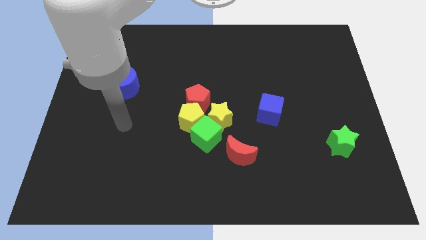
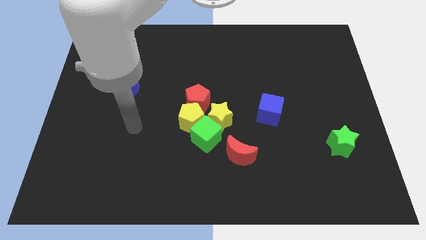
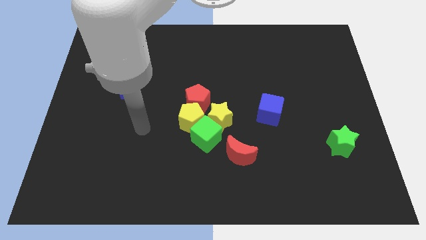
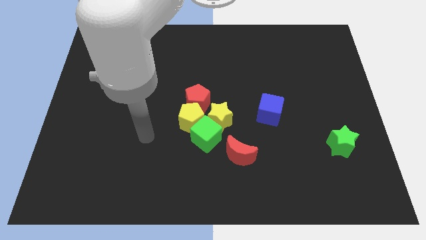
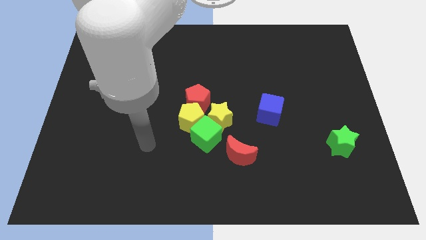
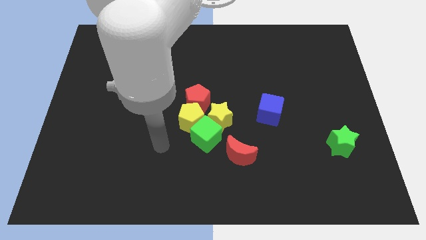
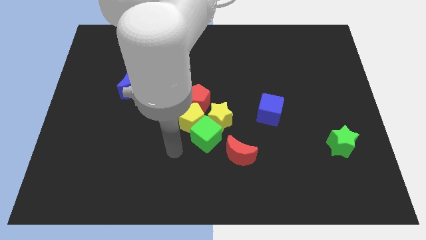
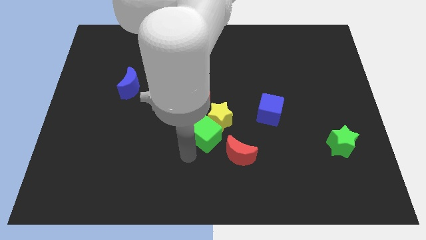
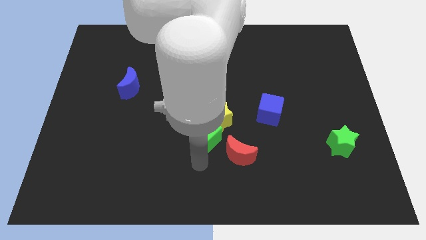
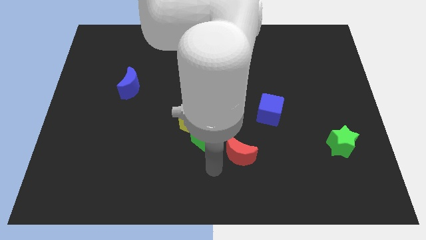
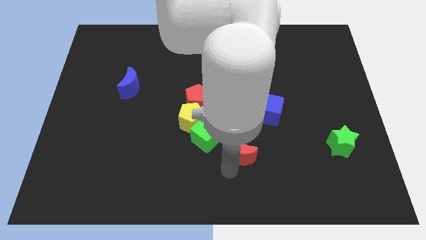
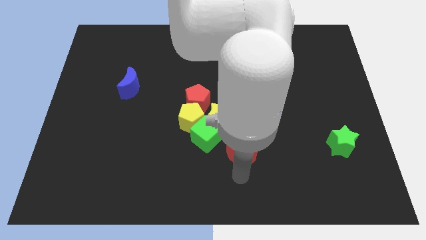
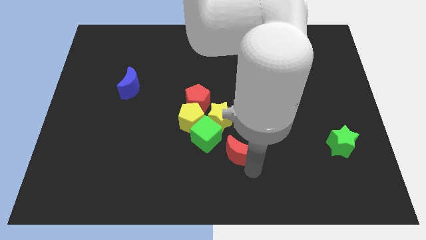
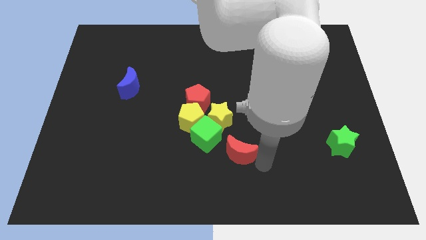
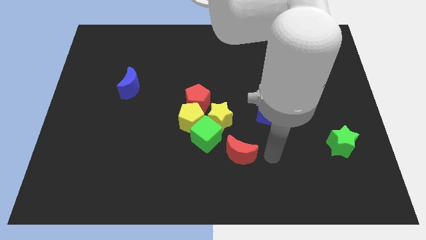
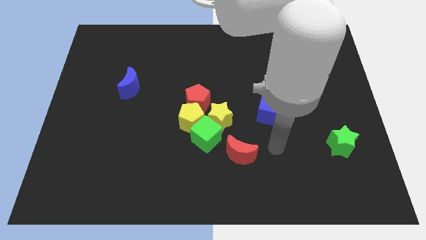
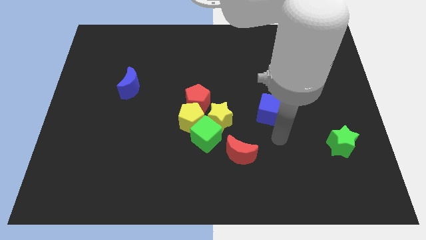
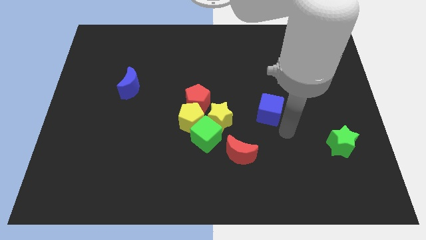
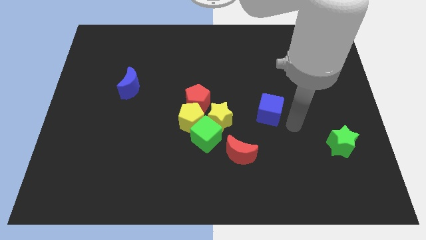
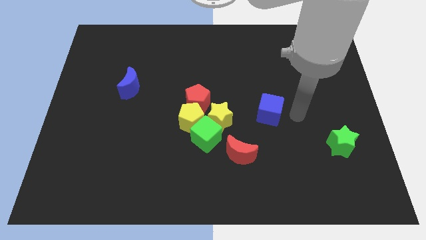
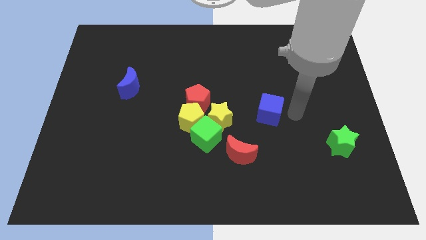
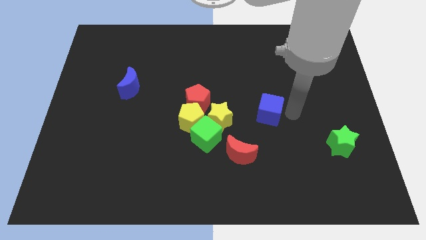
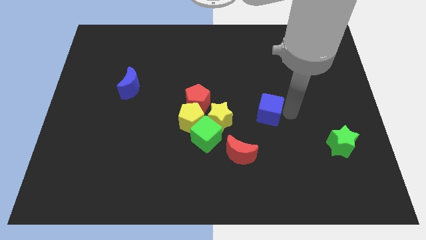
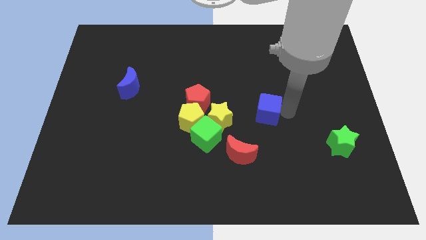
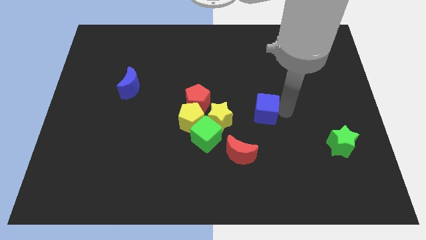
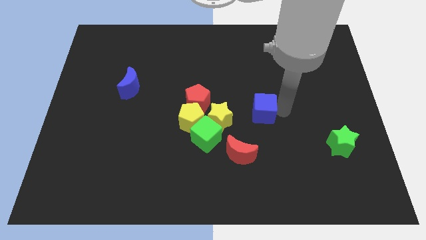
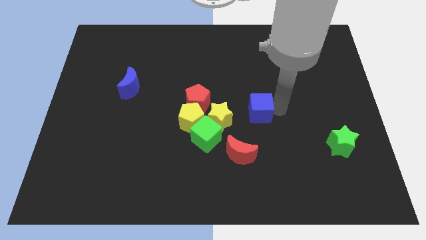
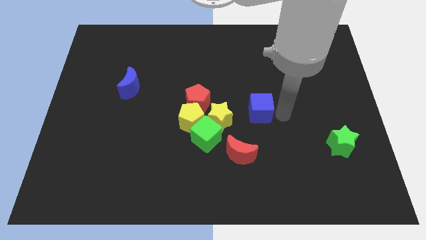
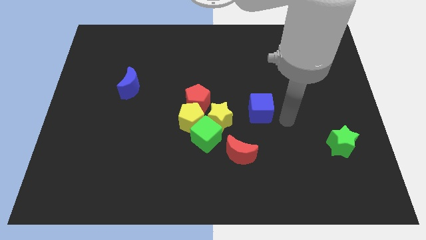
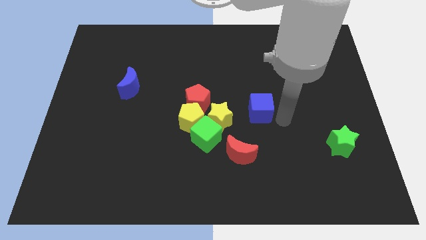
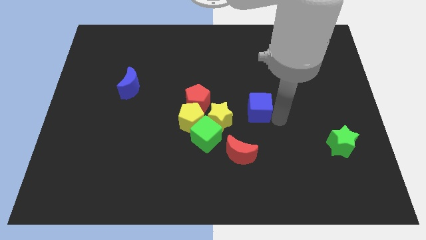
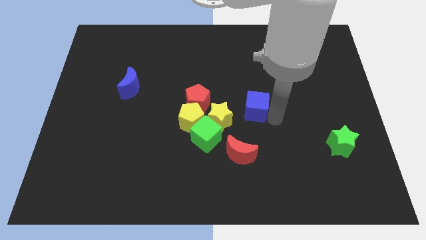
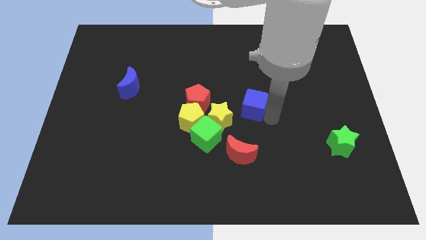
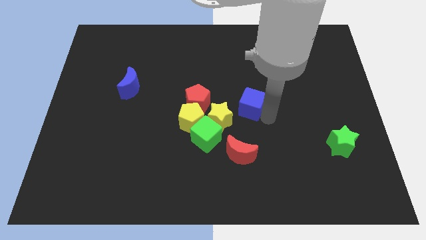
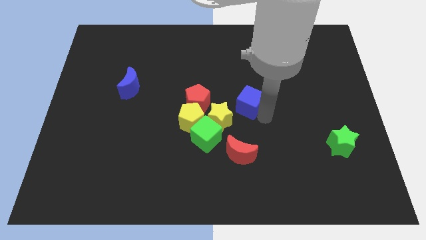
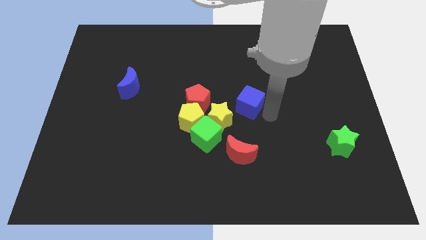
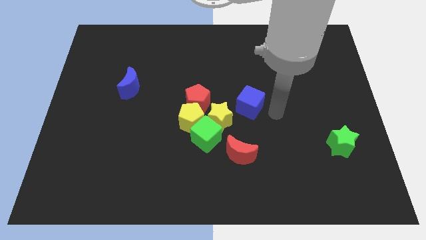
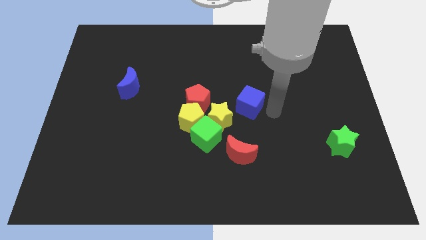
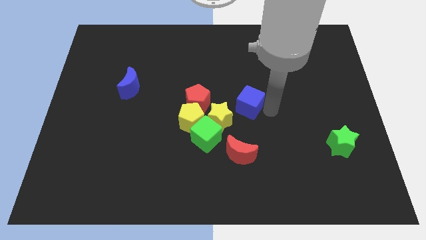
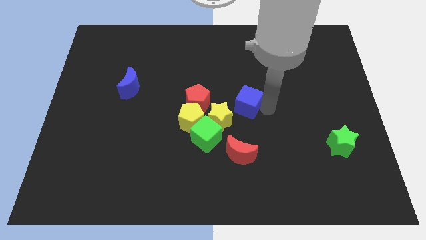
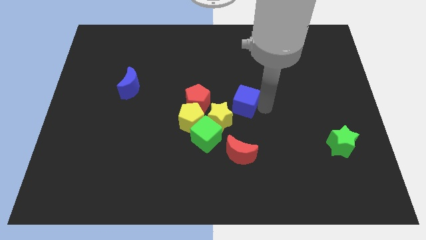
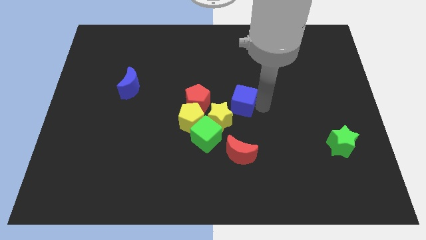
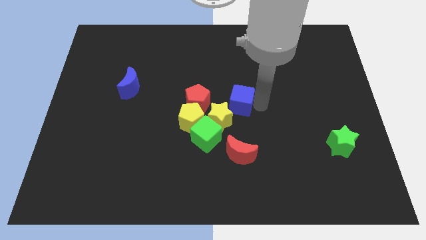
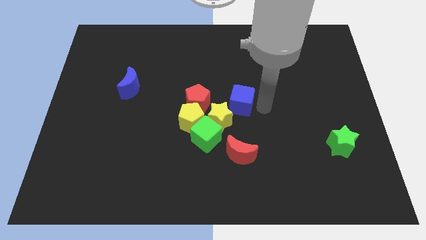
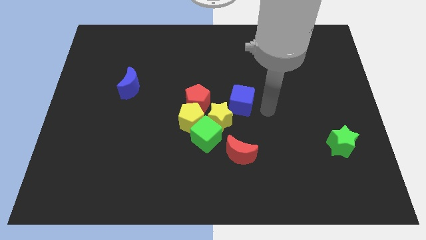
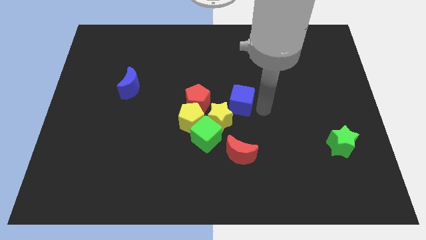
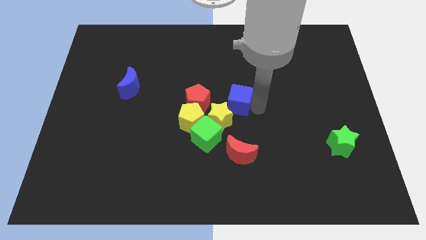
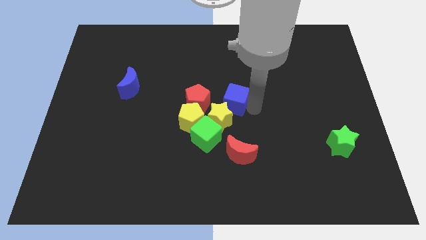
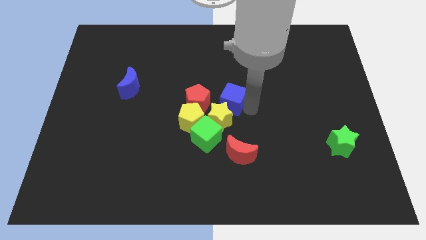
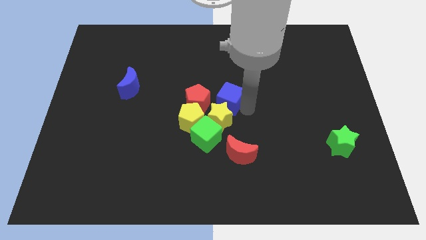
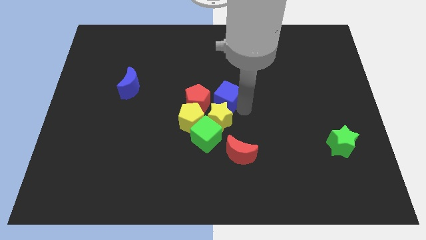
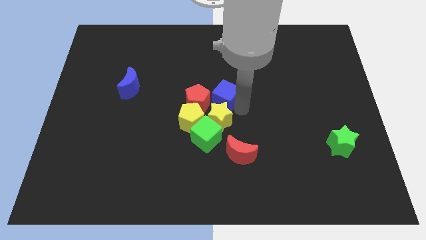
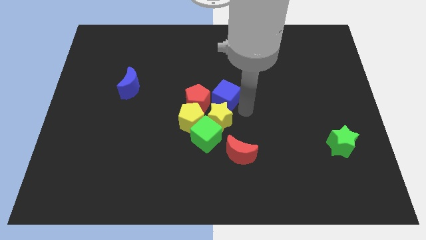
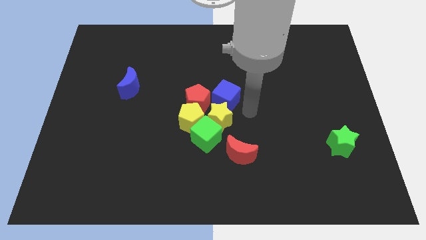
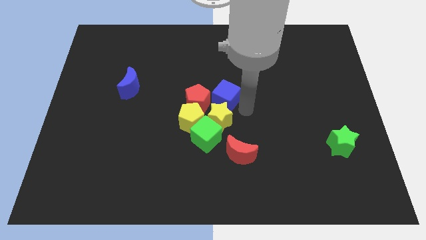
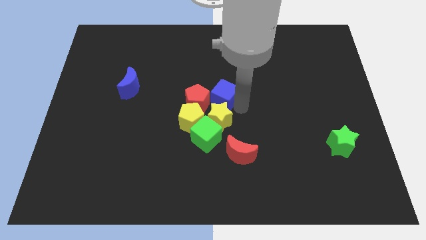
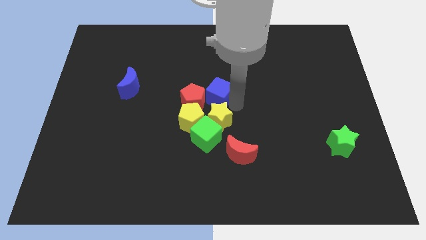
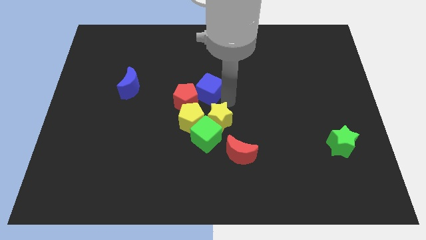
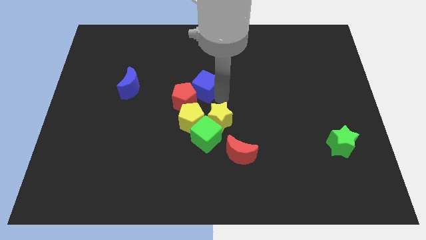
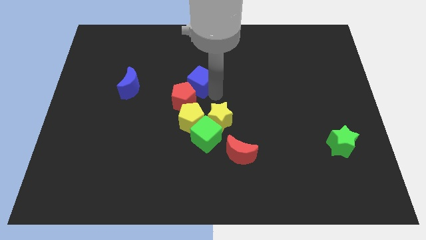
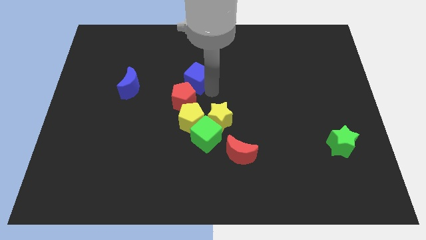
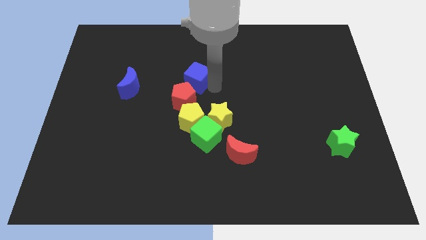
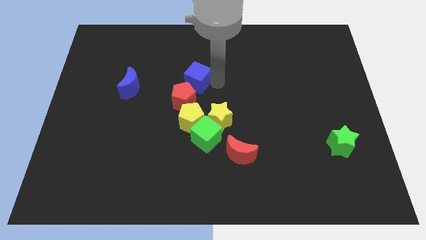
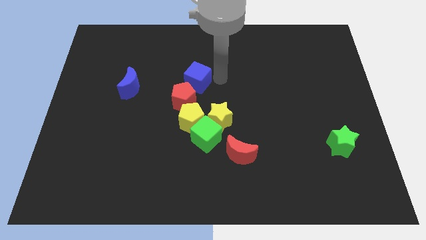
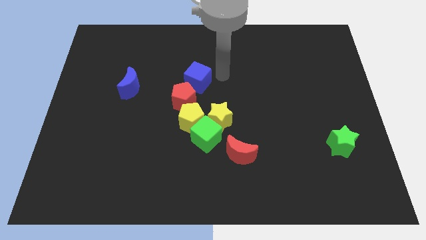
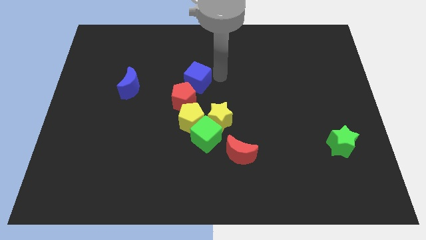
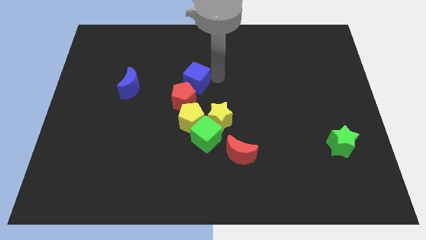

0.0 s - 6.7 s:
slide the blue cube to the right side of the blue moon

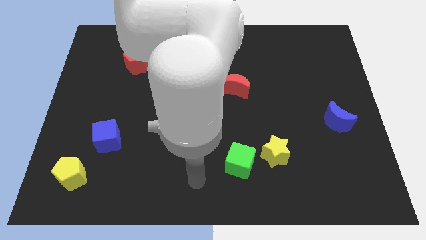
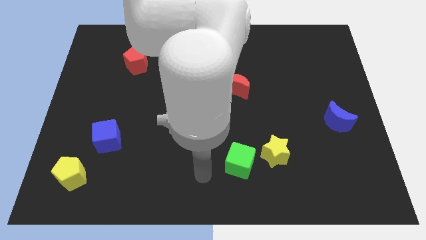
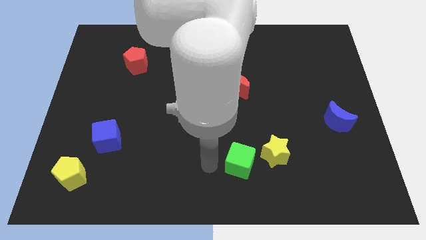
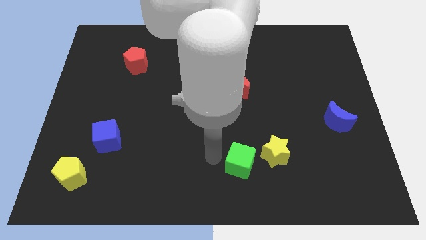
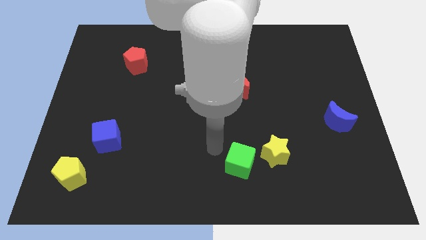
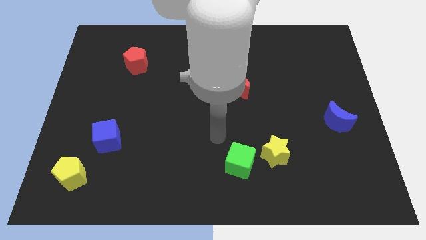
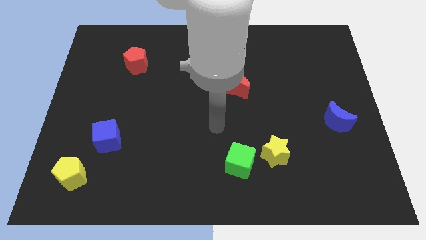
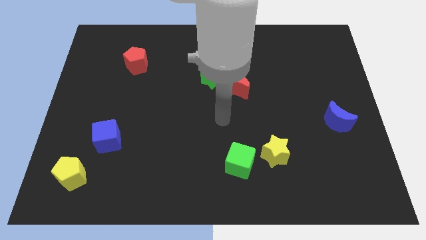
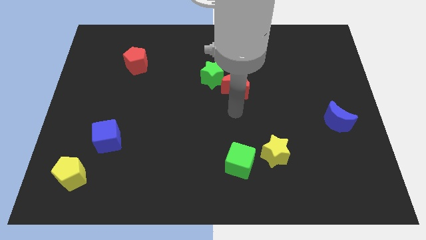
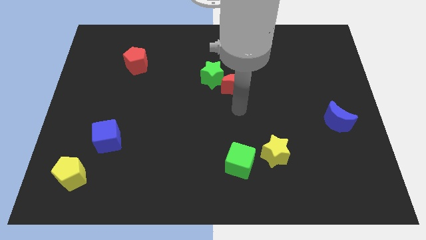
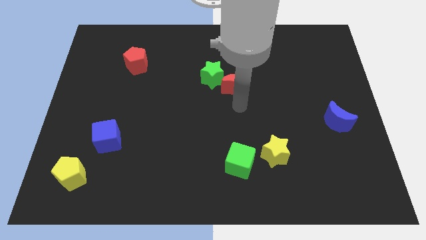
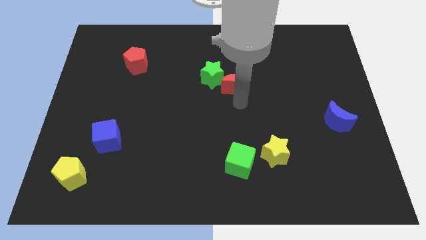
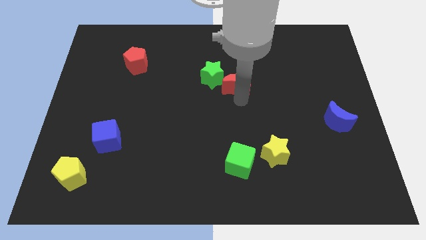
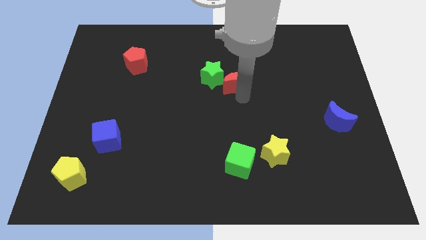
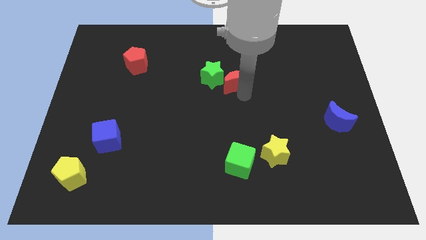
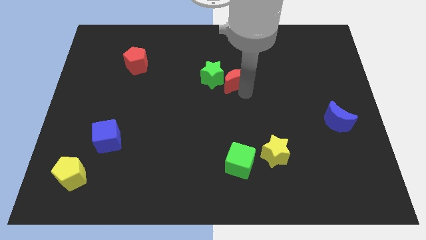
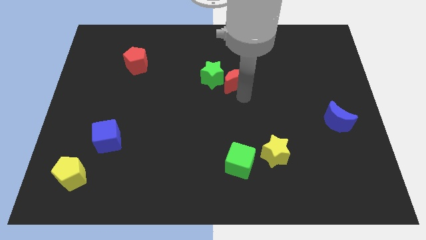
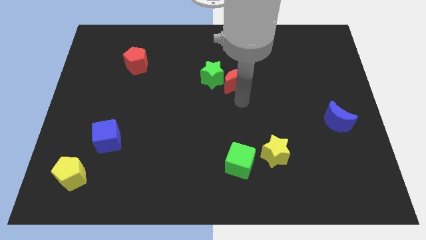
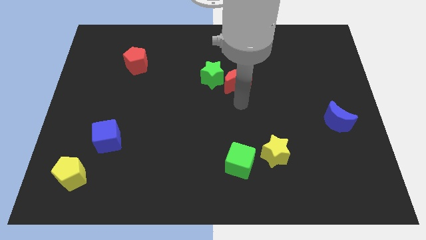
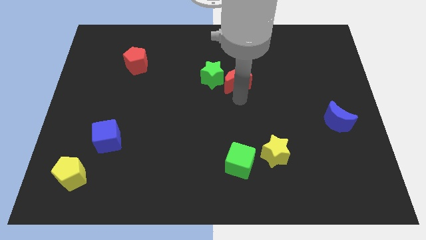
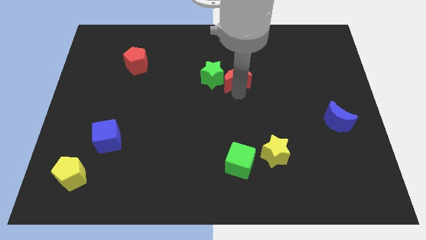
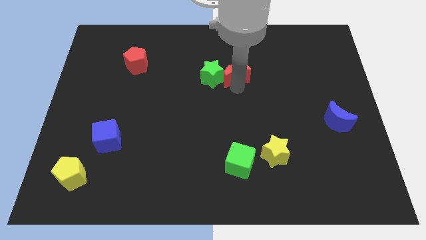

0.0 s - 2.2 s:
move the red moon to the top right side of the green star
